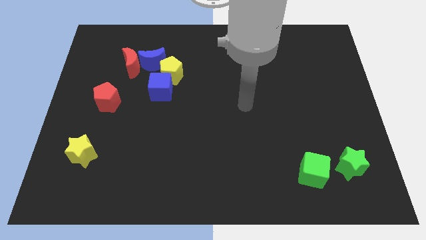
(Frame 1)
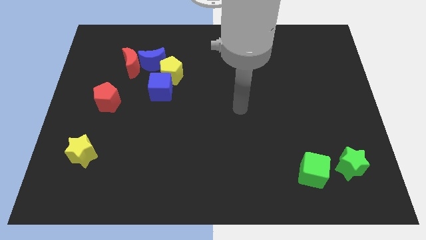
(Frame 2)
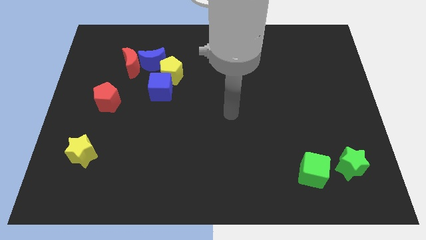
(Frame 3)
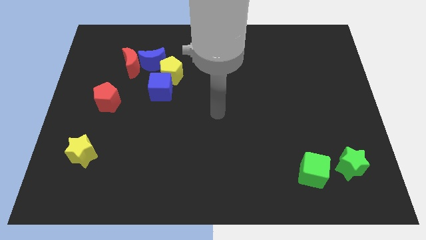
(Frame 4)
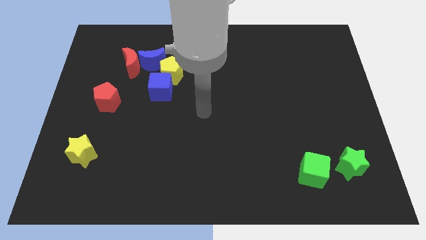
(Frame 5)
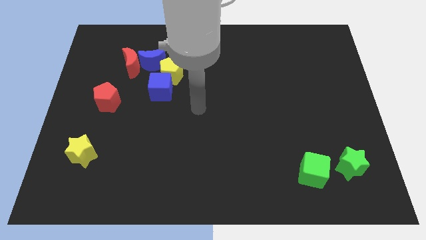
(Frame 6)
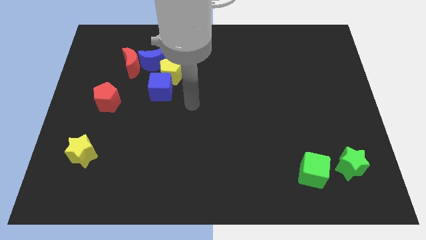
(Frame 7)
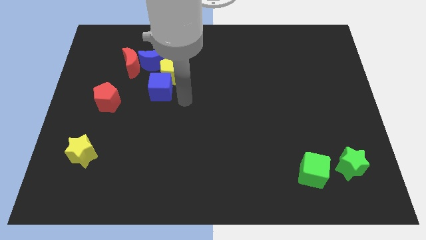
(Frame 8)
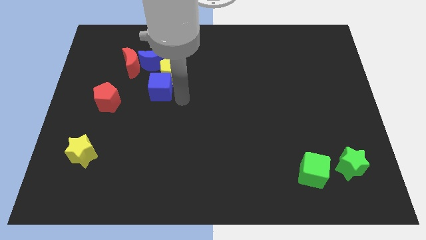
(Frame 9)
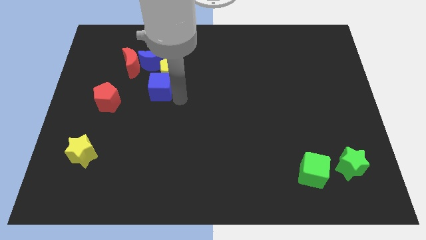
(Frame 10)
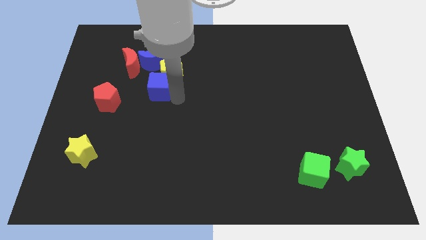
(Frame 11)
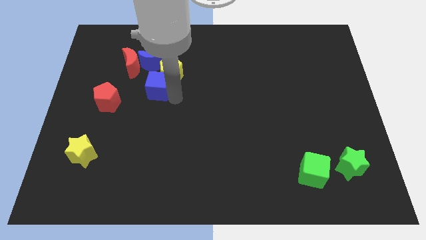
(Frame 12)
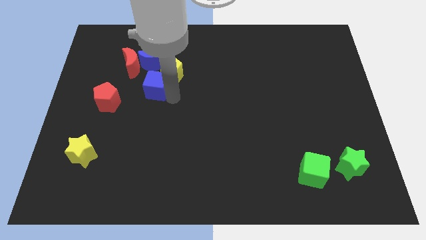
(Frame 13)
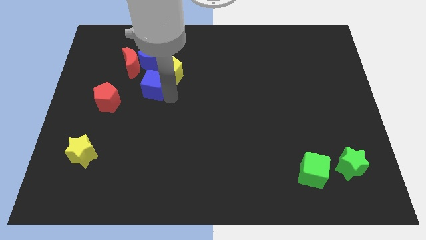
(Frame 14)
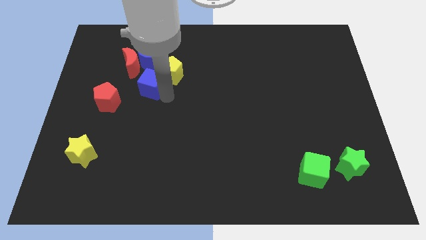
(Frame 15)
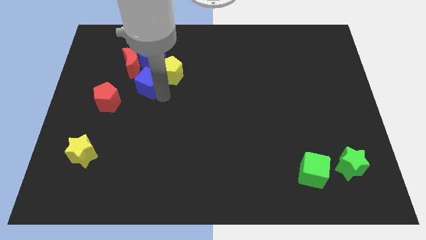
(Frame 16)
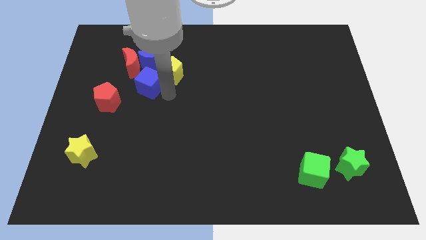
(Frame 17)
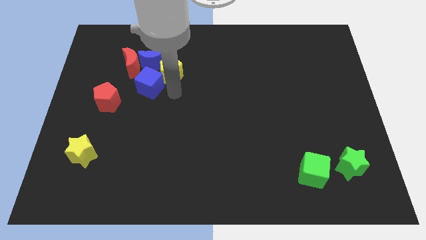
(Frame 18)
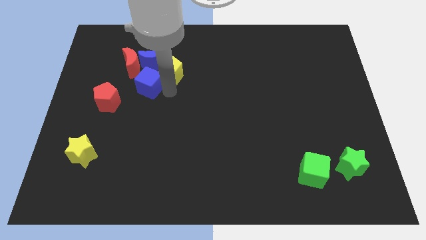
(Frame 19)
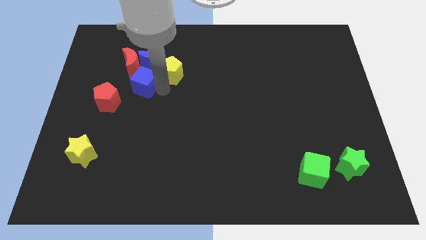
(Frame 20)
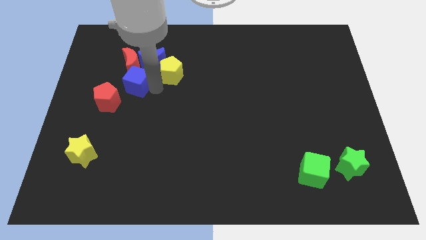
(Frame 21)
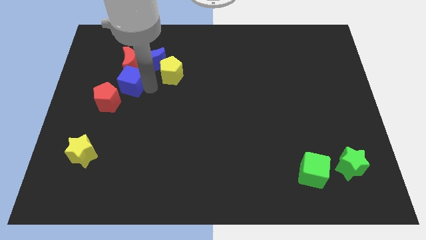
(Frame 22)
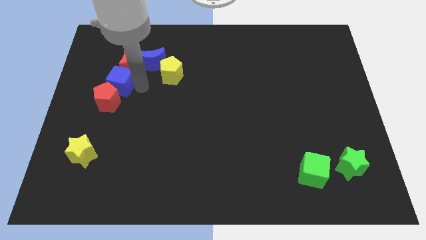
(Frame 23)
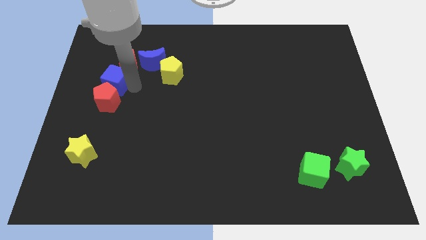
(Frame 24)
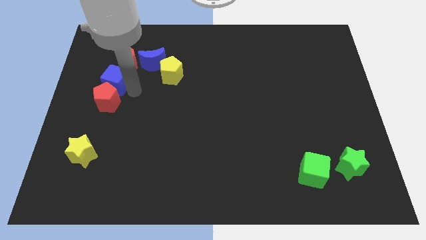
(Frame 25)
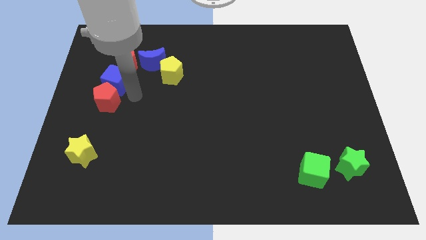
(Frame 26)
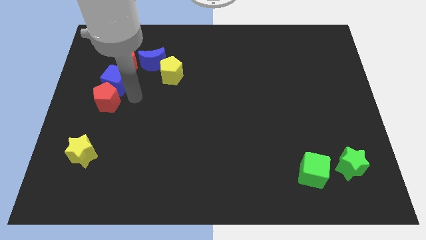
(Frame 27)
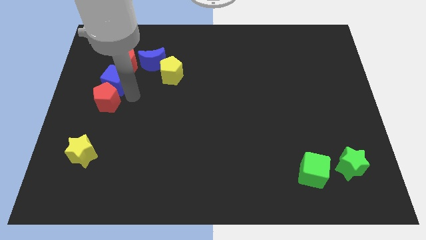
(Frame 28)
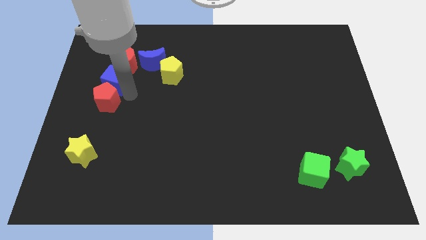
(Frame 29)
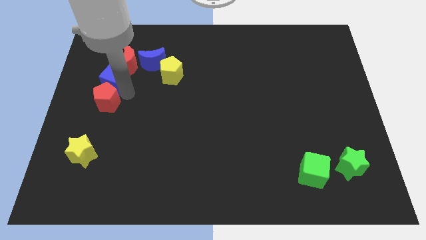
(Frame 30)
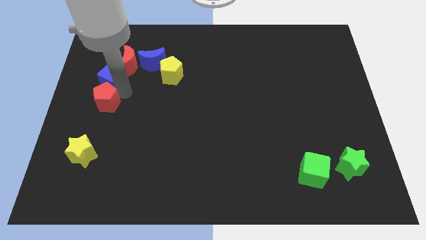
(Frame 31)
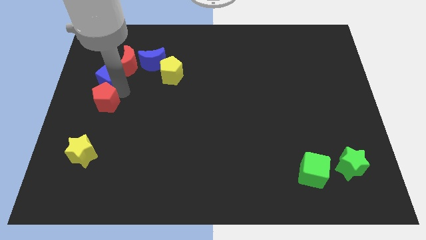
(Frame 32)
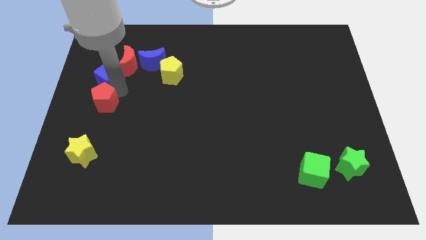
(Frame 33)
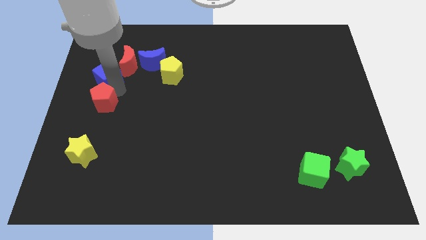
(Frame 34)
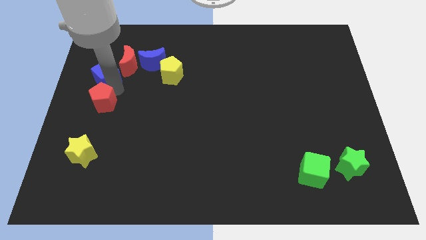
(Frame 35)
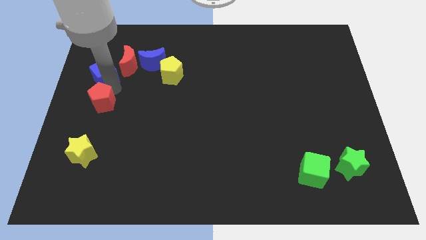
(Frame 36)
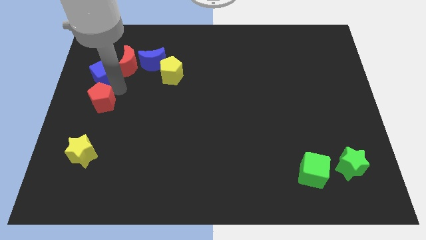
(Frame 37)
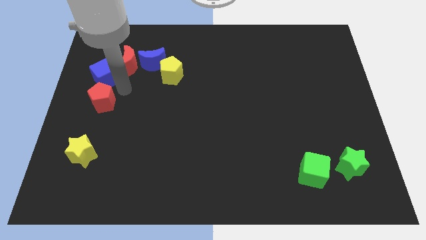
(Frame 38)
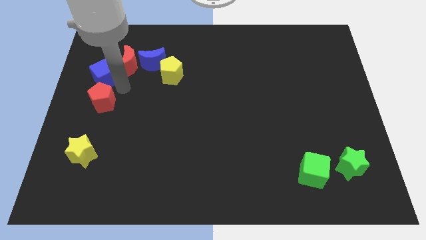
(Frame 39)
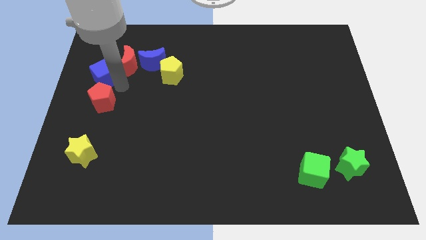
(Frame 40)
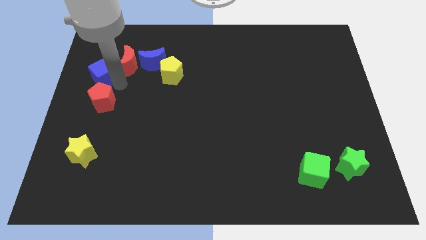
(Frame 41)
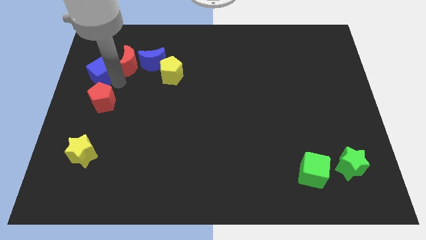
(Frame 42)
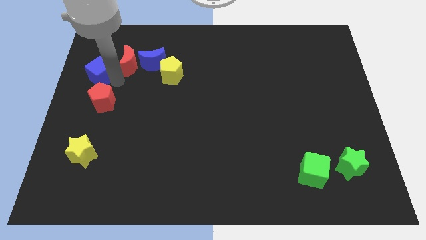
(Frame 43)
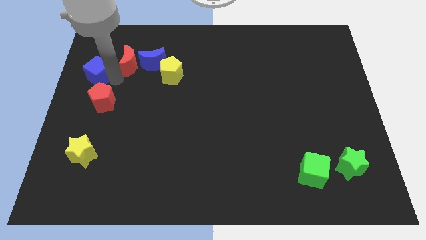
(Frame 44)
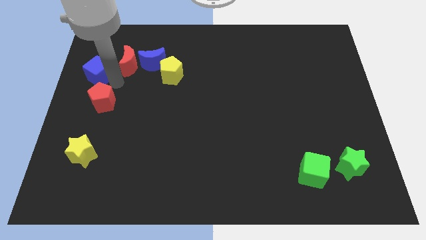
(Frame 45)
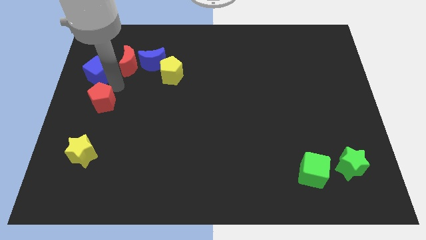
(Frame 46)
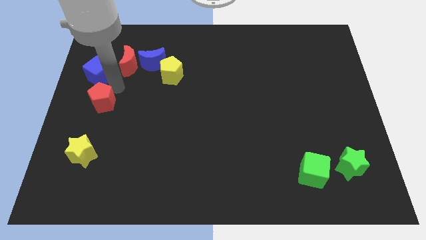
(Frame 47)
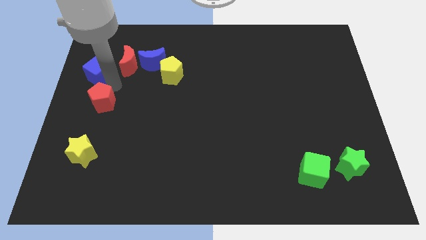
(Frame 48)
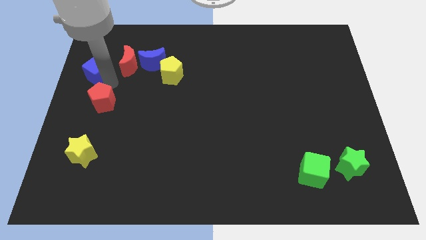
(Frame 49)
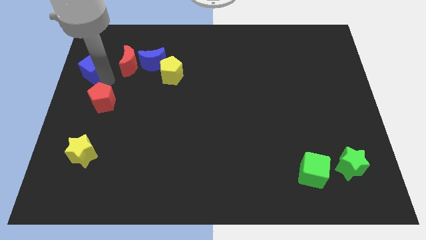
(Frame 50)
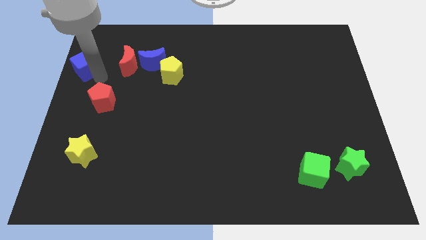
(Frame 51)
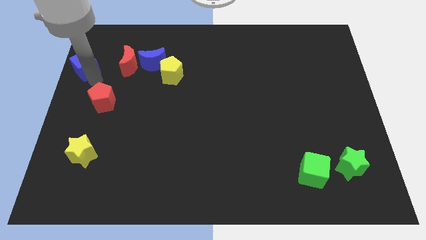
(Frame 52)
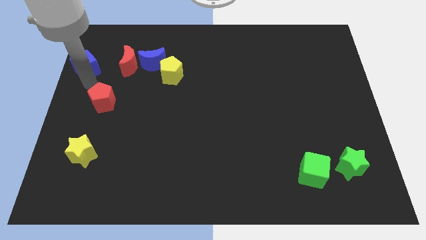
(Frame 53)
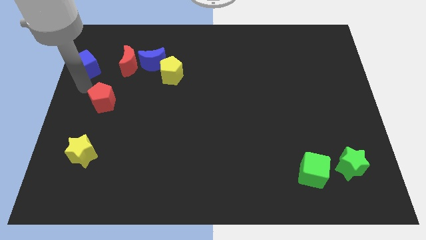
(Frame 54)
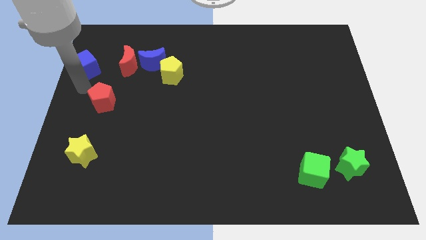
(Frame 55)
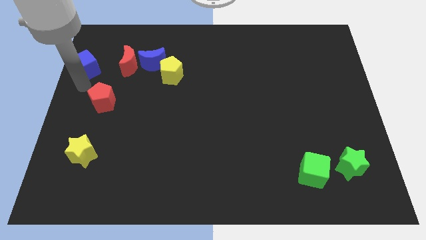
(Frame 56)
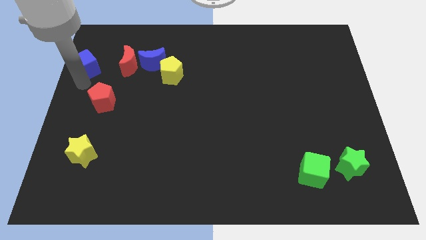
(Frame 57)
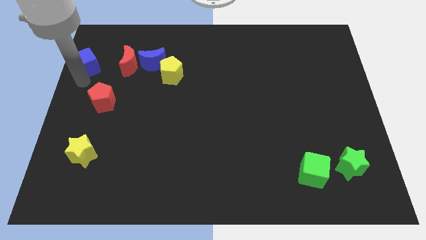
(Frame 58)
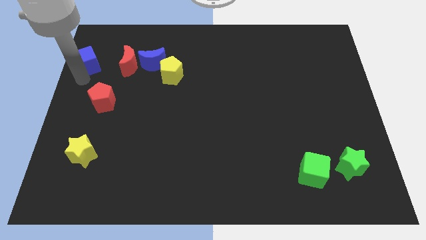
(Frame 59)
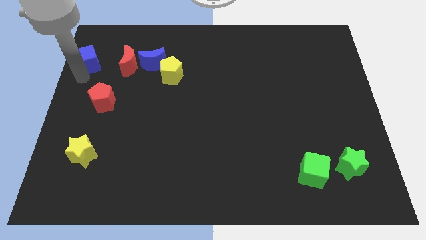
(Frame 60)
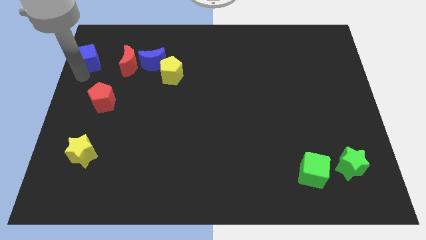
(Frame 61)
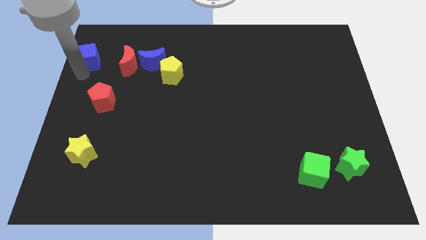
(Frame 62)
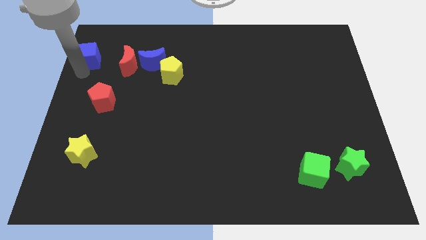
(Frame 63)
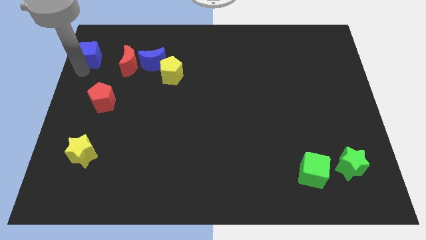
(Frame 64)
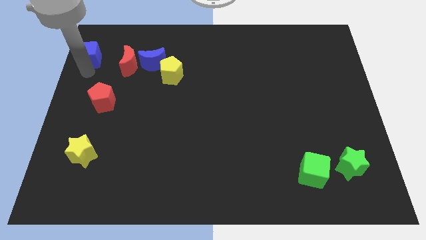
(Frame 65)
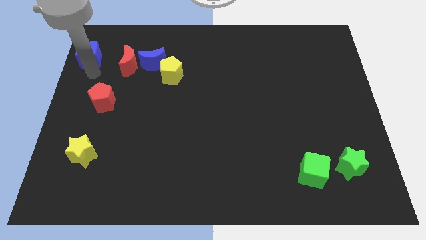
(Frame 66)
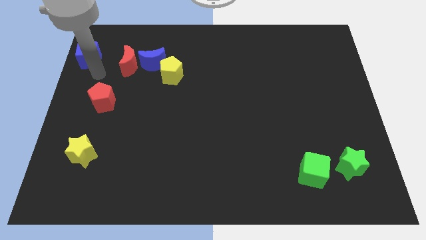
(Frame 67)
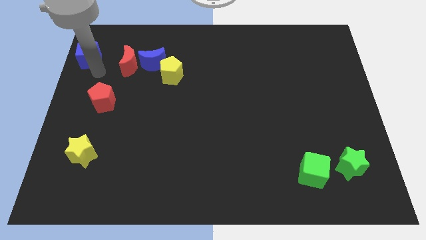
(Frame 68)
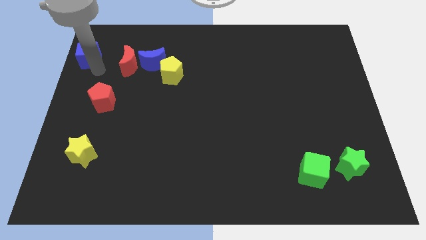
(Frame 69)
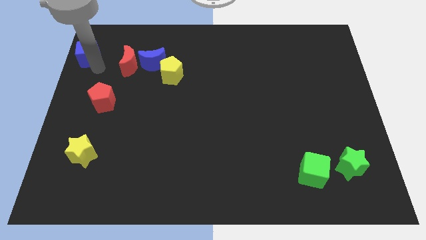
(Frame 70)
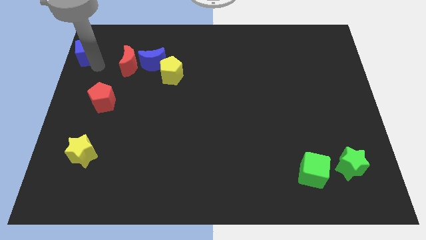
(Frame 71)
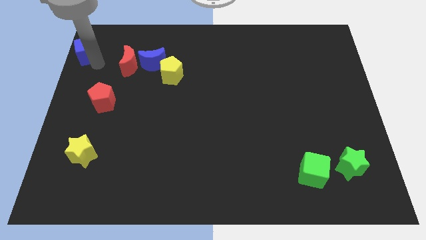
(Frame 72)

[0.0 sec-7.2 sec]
move the blue cube to the top left corner
